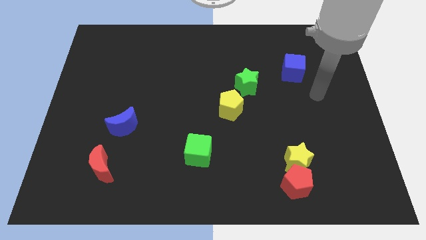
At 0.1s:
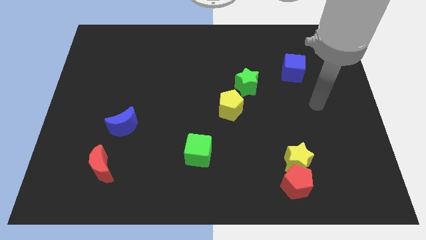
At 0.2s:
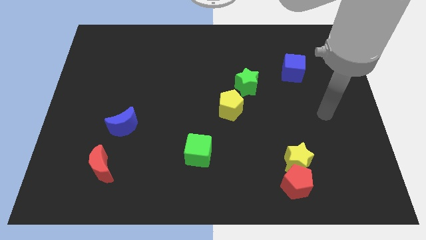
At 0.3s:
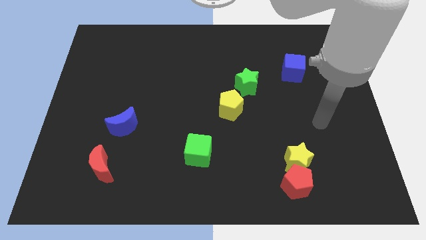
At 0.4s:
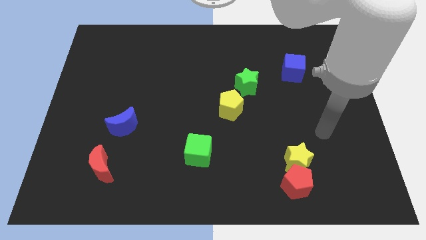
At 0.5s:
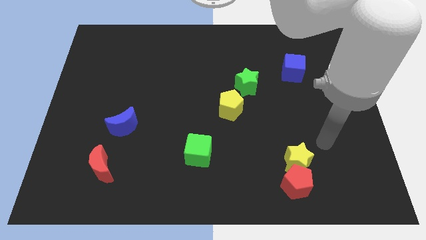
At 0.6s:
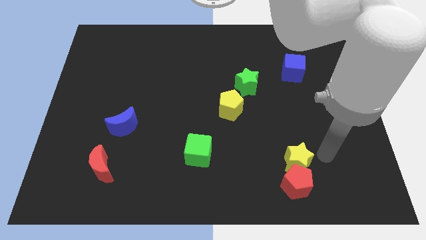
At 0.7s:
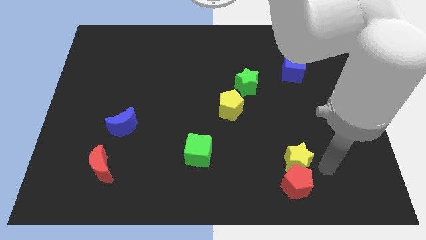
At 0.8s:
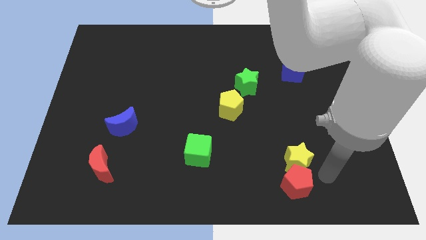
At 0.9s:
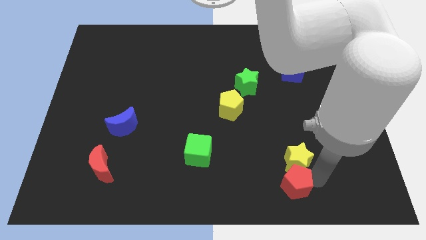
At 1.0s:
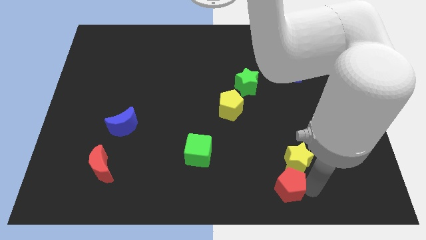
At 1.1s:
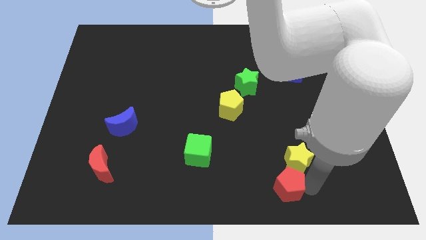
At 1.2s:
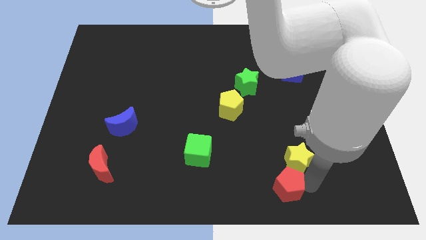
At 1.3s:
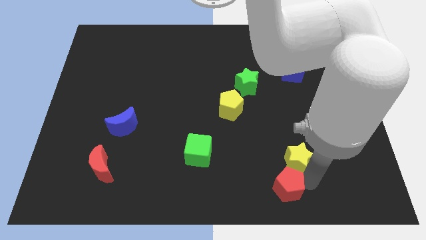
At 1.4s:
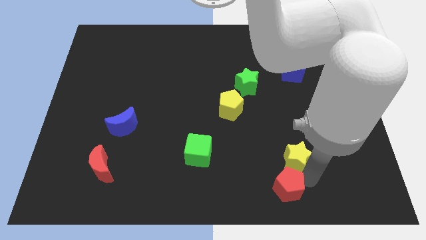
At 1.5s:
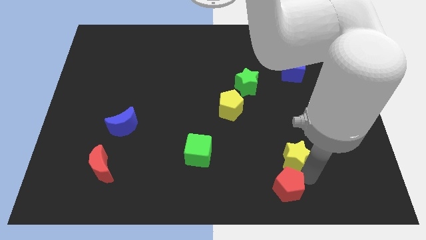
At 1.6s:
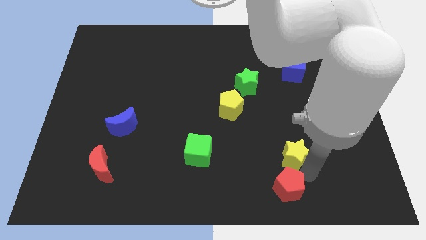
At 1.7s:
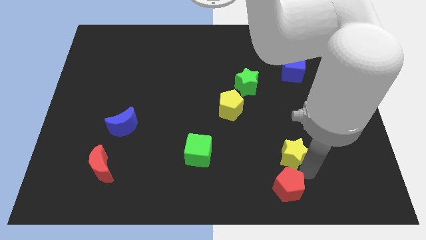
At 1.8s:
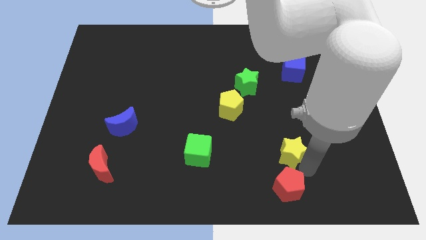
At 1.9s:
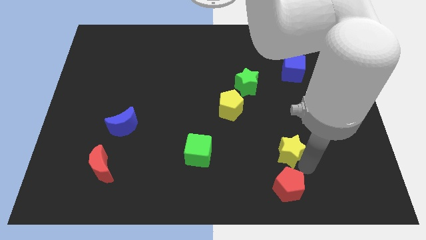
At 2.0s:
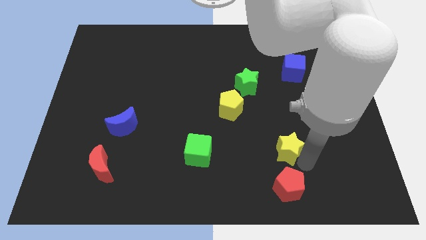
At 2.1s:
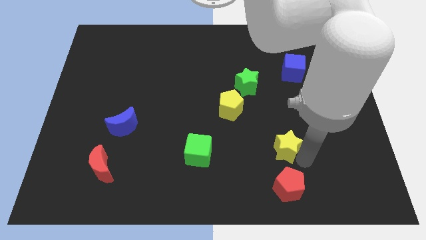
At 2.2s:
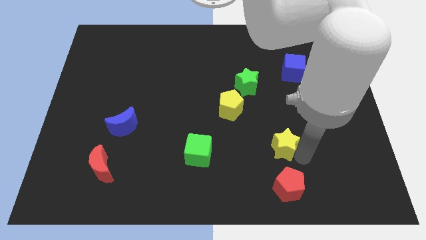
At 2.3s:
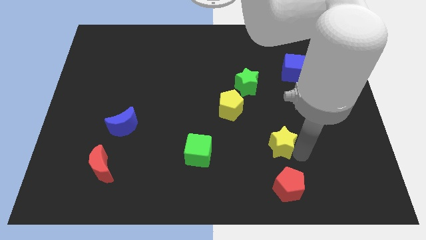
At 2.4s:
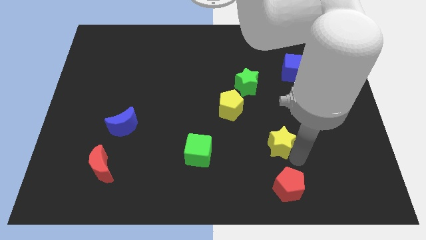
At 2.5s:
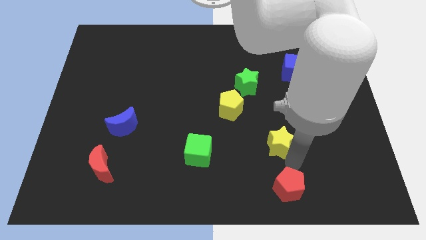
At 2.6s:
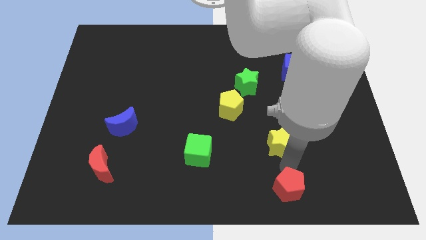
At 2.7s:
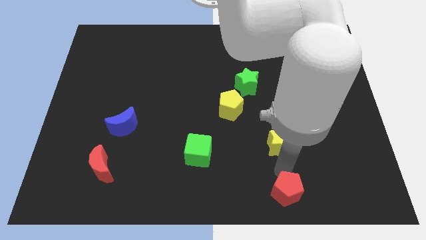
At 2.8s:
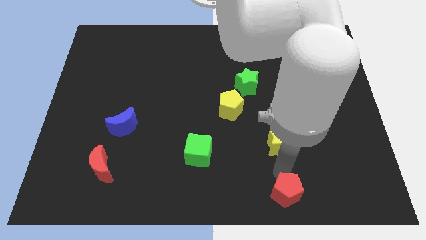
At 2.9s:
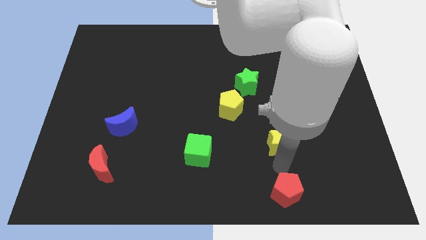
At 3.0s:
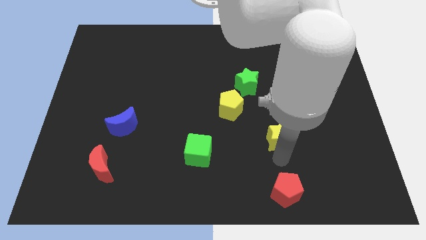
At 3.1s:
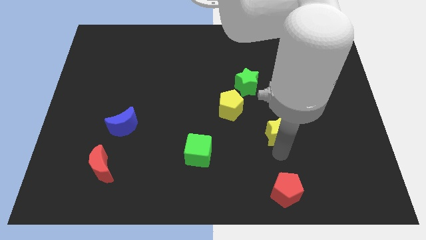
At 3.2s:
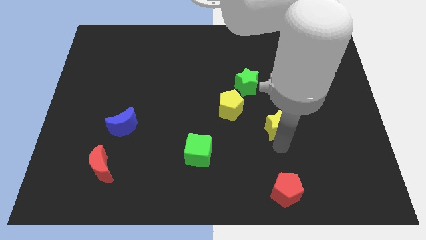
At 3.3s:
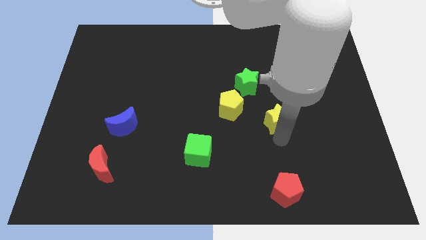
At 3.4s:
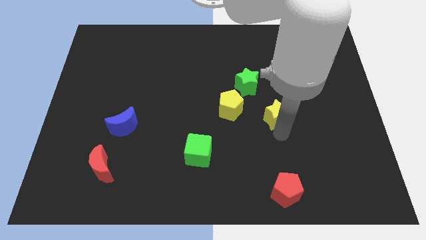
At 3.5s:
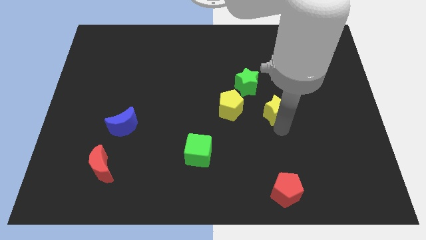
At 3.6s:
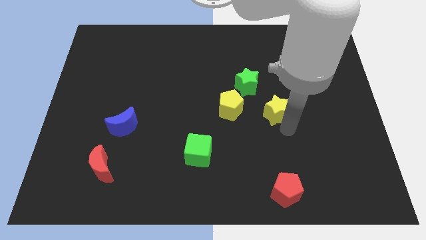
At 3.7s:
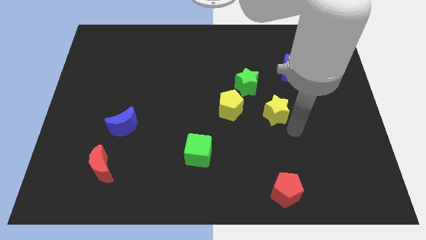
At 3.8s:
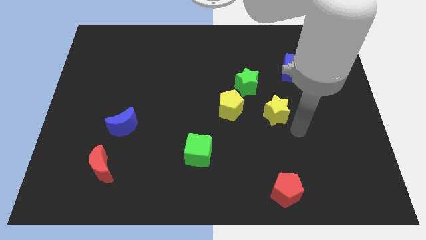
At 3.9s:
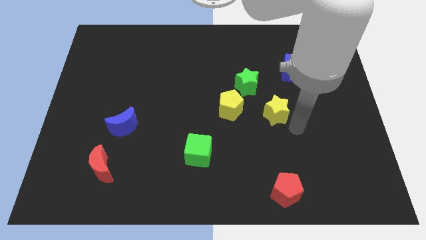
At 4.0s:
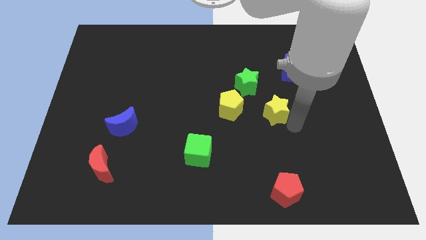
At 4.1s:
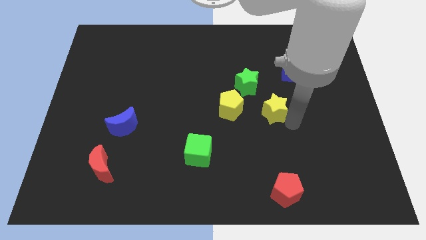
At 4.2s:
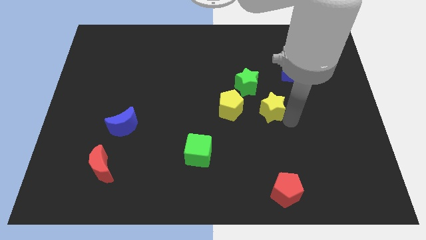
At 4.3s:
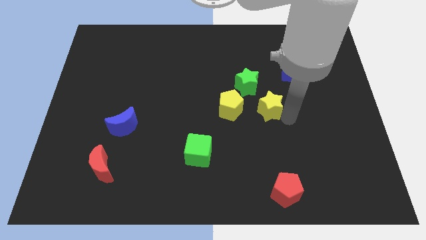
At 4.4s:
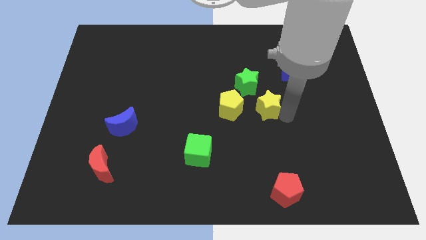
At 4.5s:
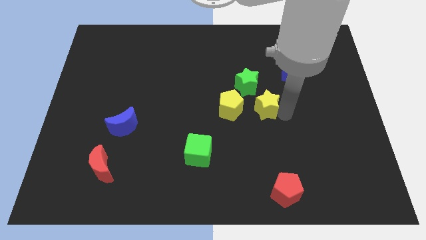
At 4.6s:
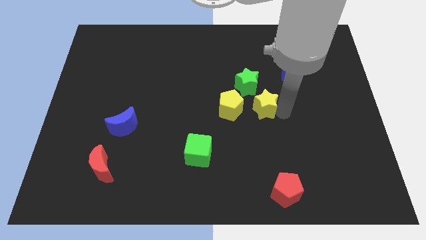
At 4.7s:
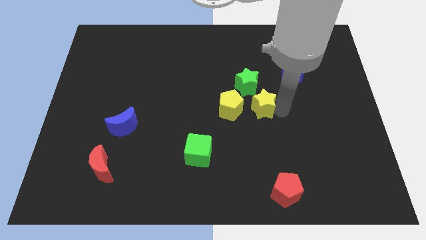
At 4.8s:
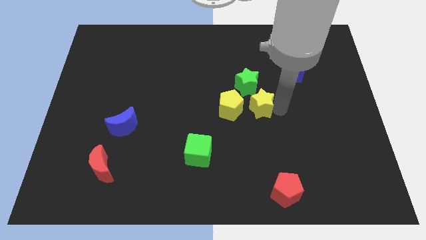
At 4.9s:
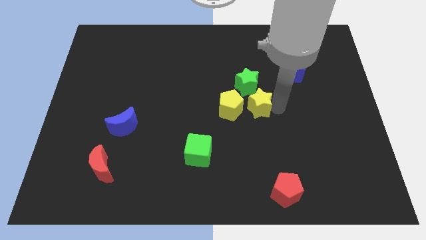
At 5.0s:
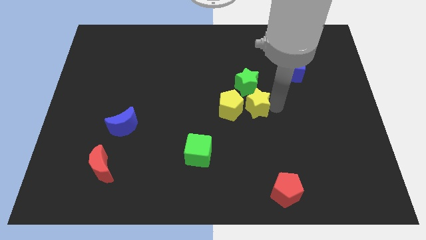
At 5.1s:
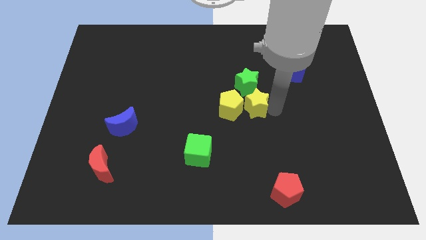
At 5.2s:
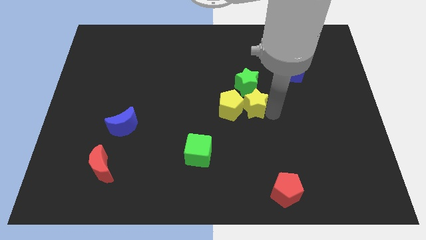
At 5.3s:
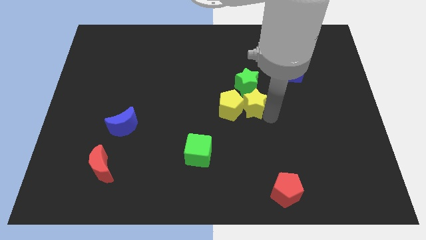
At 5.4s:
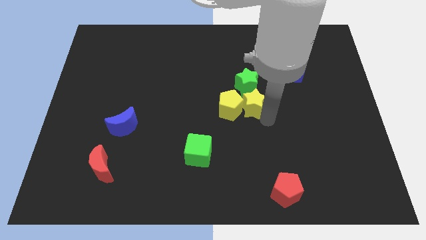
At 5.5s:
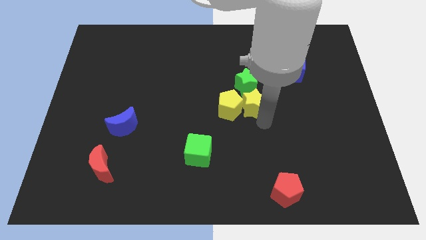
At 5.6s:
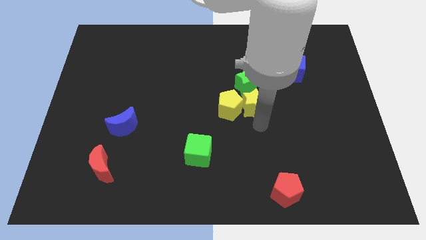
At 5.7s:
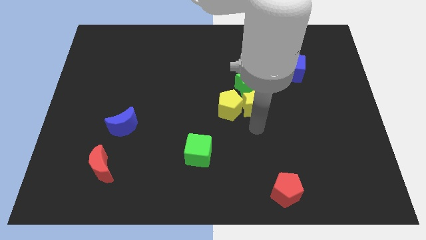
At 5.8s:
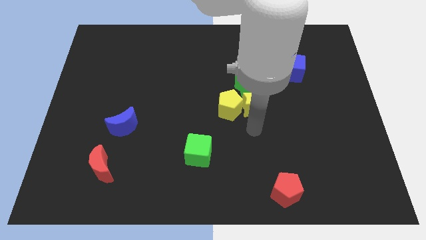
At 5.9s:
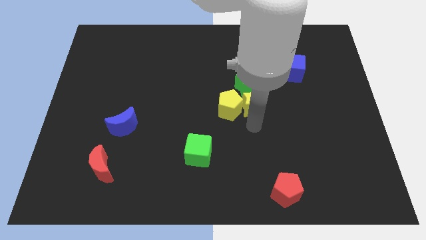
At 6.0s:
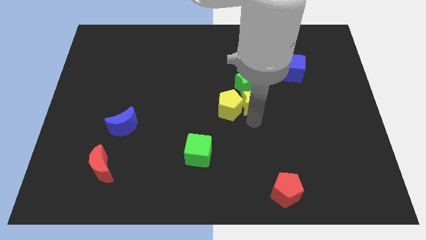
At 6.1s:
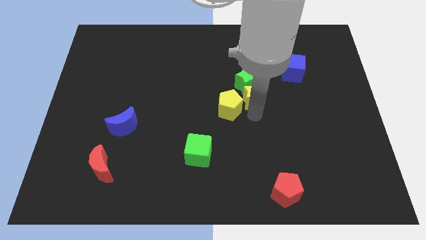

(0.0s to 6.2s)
push the yellow star to the green star
